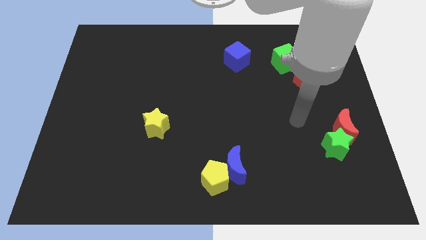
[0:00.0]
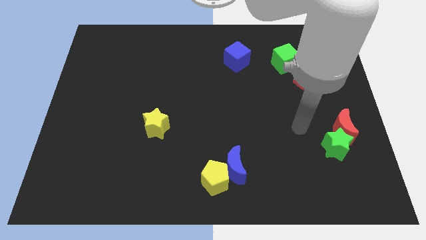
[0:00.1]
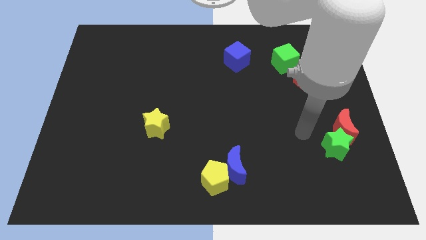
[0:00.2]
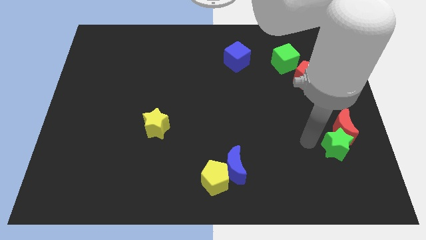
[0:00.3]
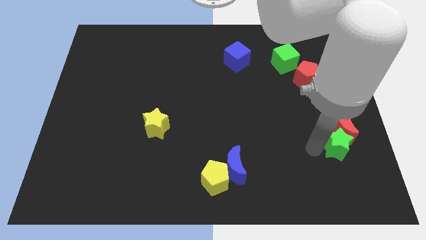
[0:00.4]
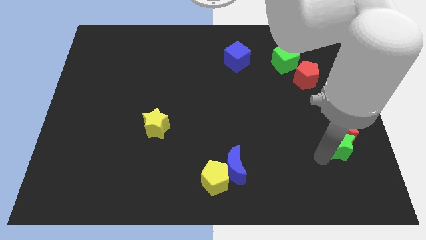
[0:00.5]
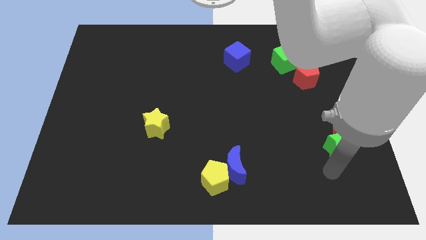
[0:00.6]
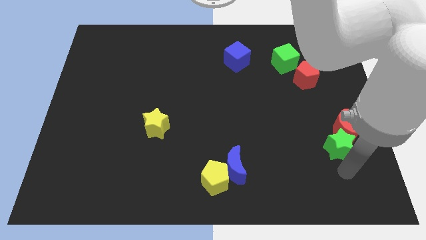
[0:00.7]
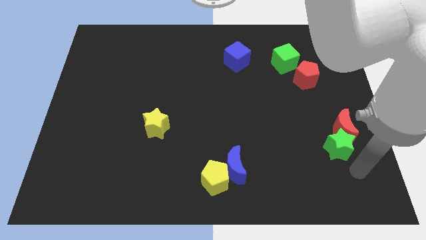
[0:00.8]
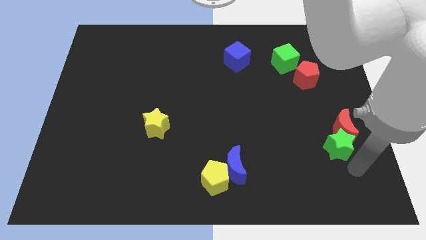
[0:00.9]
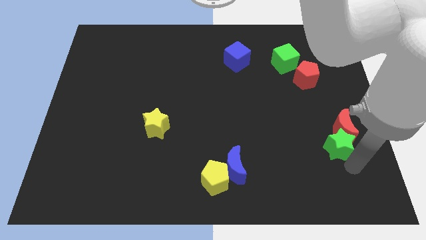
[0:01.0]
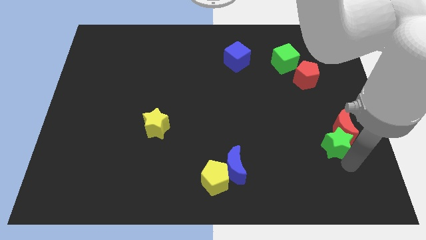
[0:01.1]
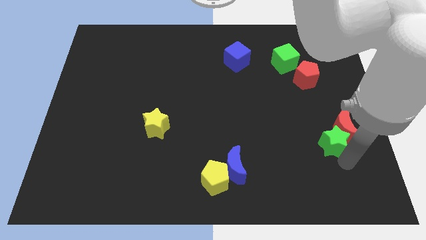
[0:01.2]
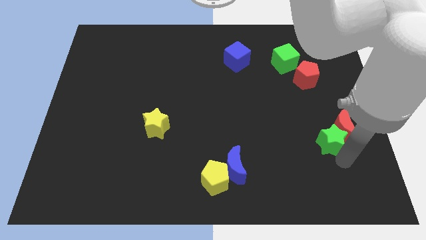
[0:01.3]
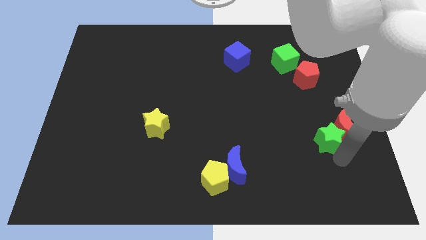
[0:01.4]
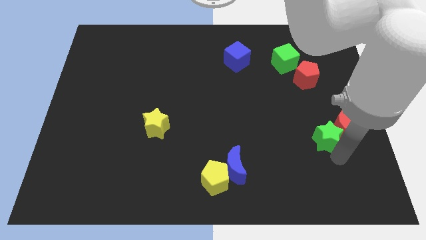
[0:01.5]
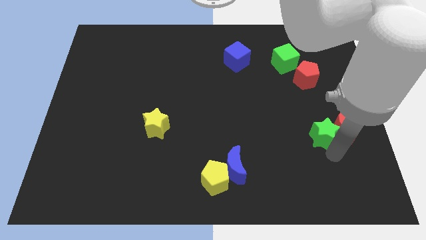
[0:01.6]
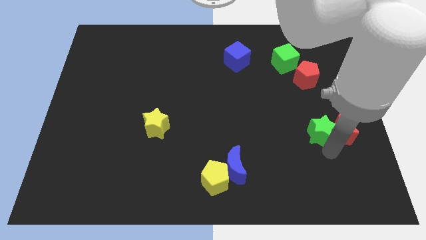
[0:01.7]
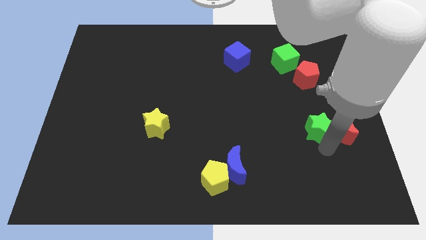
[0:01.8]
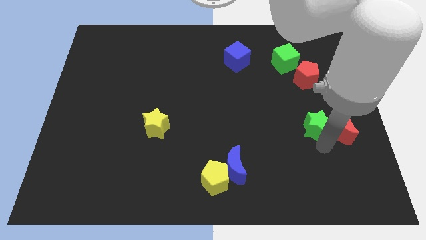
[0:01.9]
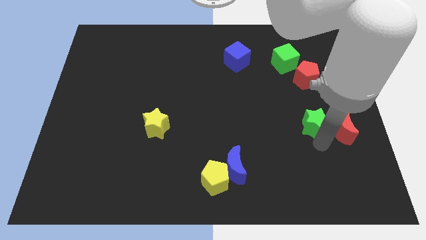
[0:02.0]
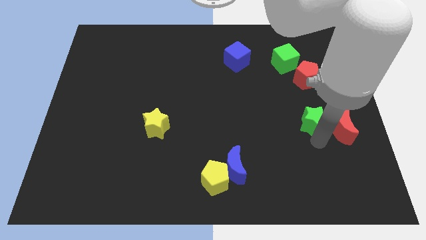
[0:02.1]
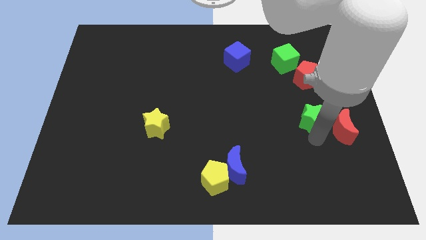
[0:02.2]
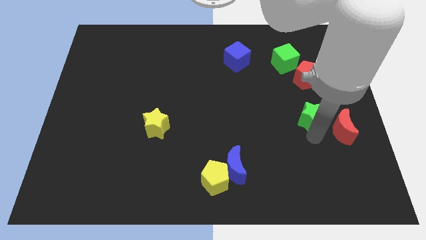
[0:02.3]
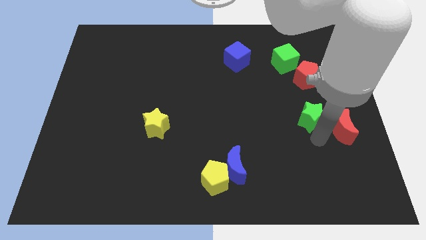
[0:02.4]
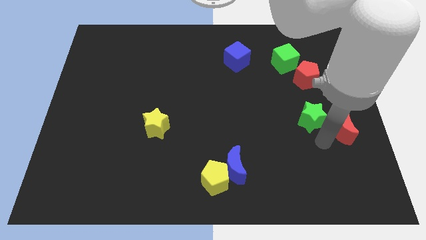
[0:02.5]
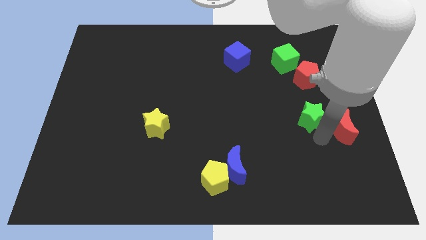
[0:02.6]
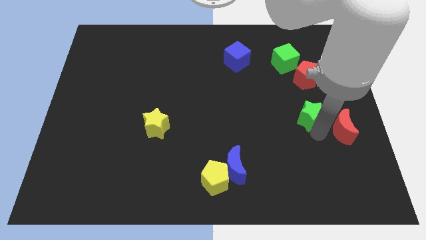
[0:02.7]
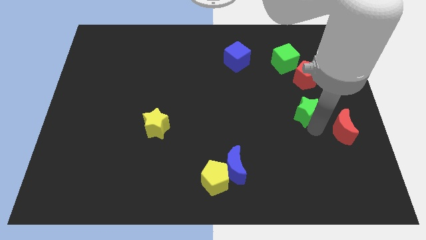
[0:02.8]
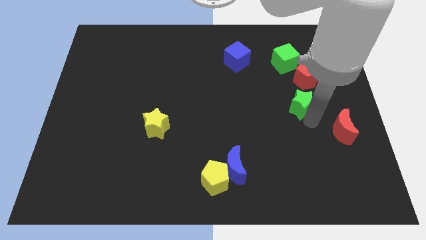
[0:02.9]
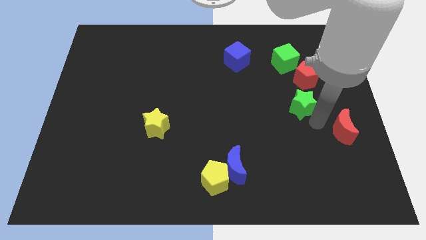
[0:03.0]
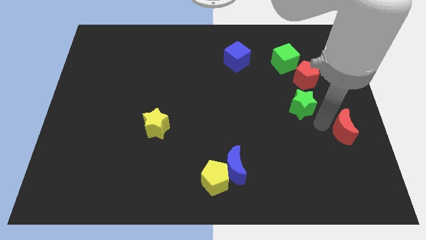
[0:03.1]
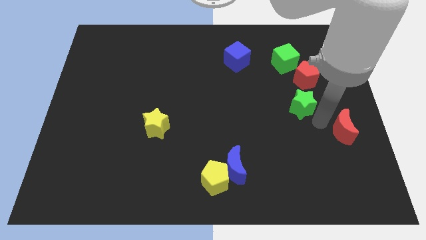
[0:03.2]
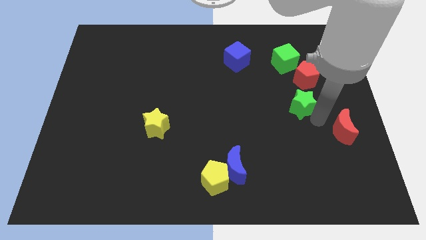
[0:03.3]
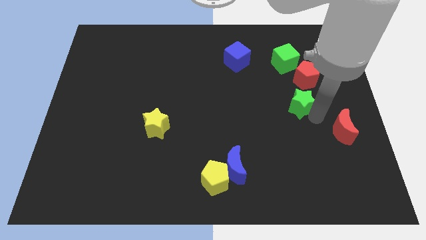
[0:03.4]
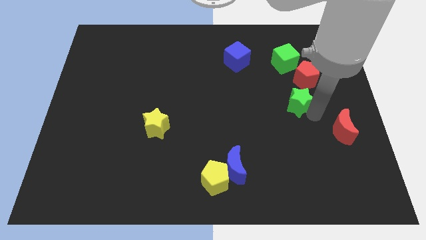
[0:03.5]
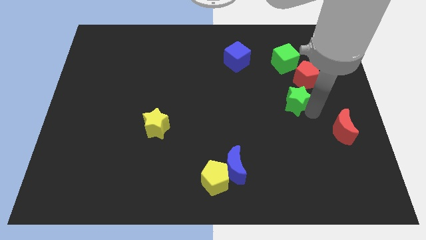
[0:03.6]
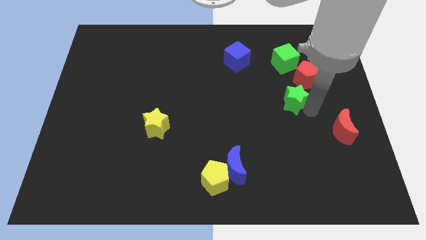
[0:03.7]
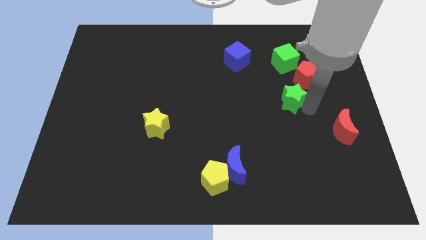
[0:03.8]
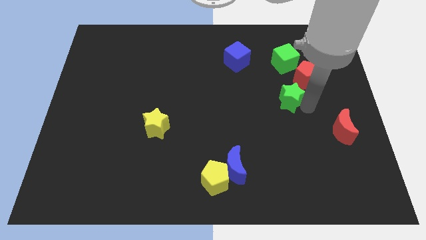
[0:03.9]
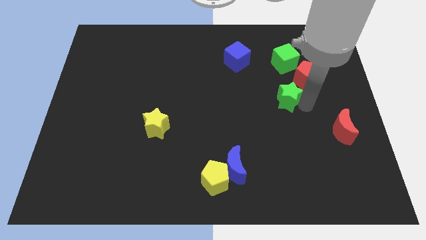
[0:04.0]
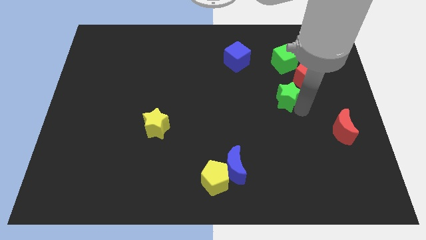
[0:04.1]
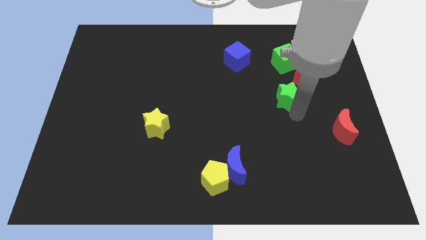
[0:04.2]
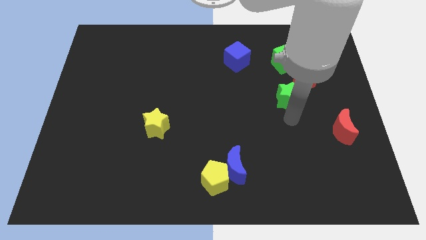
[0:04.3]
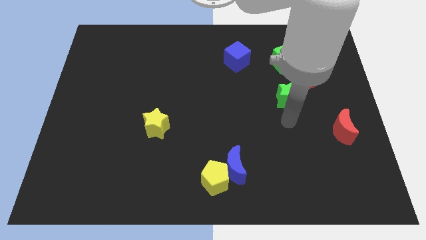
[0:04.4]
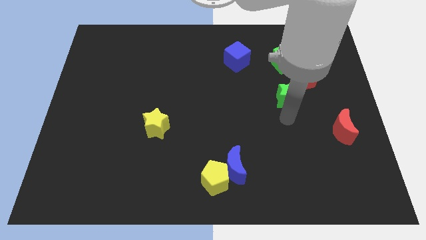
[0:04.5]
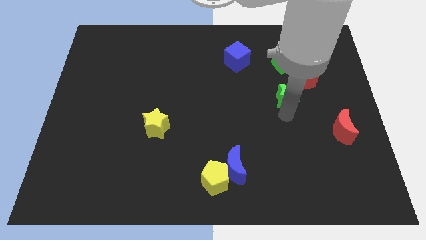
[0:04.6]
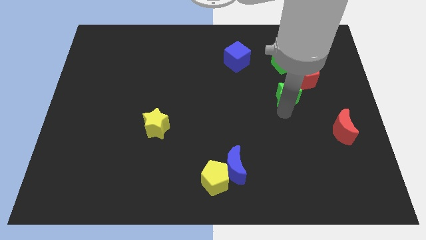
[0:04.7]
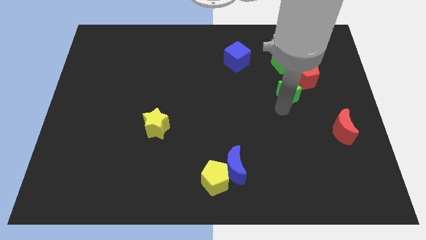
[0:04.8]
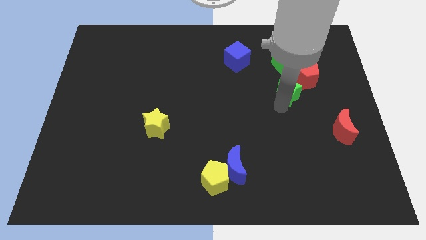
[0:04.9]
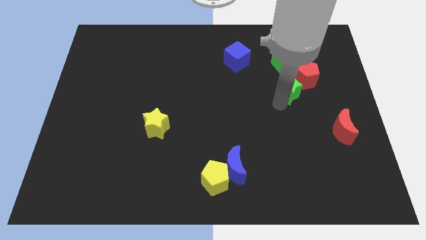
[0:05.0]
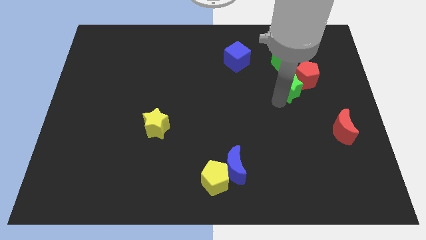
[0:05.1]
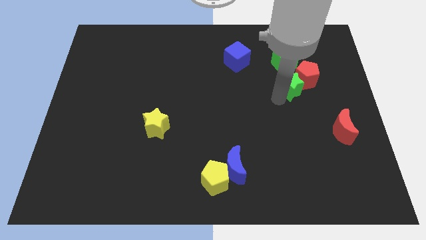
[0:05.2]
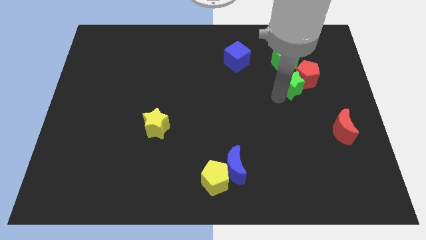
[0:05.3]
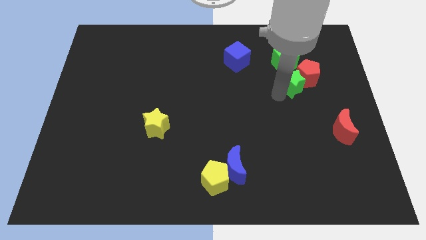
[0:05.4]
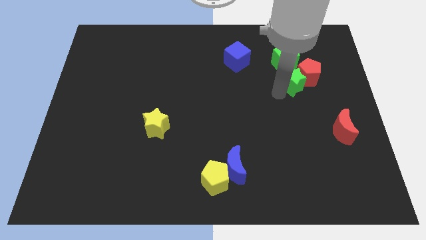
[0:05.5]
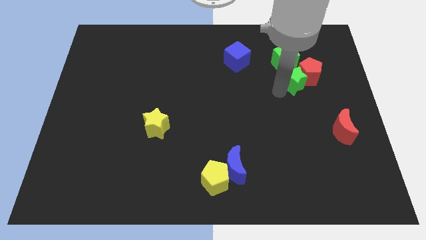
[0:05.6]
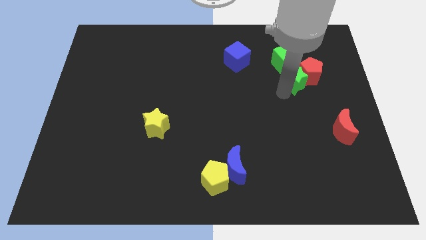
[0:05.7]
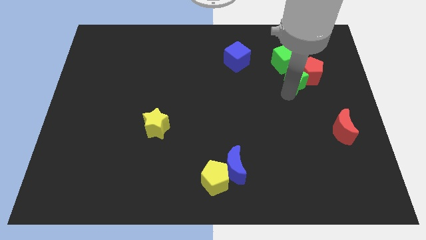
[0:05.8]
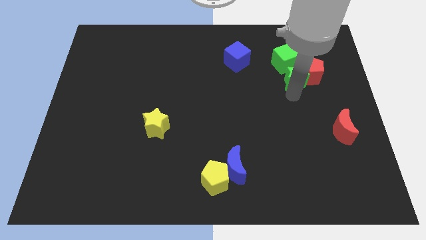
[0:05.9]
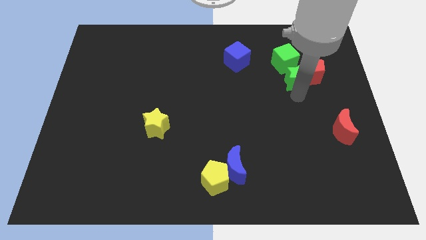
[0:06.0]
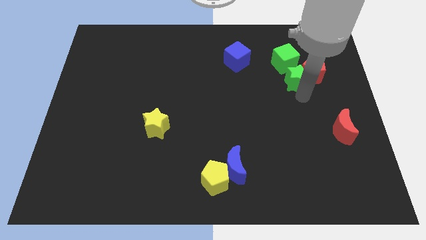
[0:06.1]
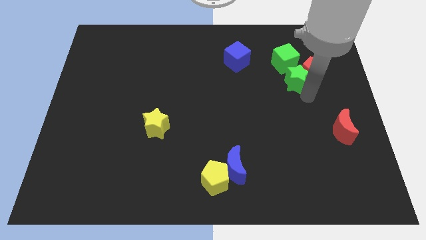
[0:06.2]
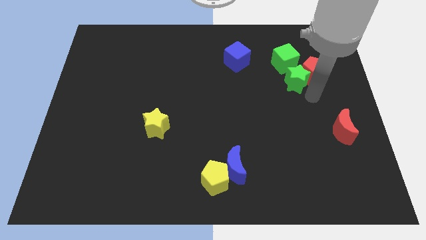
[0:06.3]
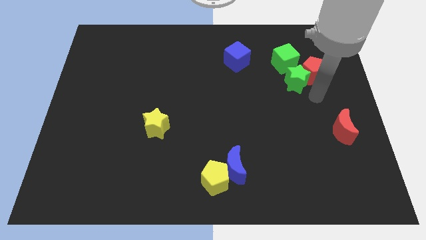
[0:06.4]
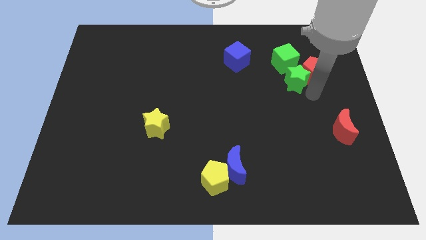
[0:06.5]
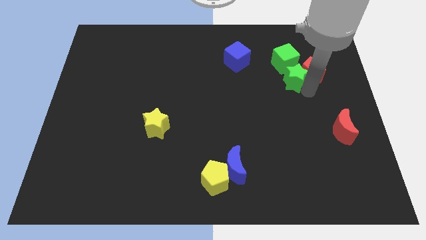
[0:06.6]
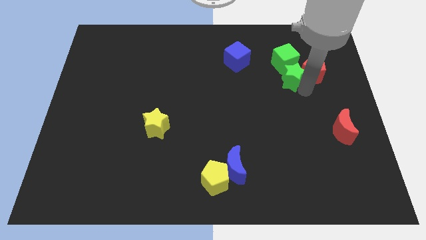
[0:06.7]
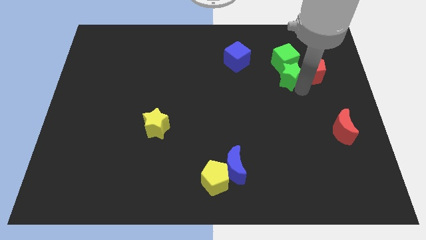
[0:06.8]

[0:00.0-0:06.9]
move the green star to the green cube

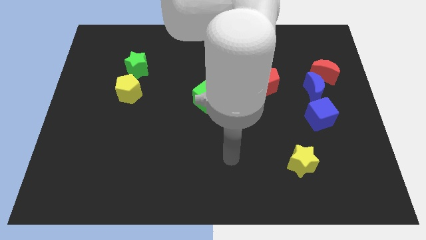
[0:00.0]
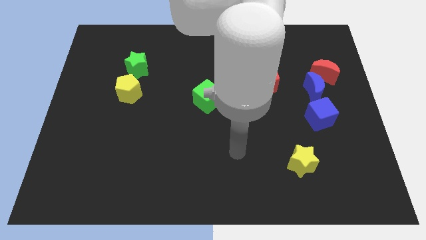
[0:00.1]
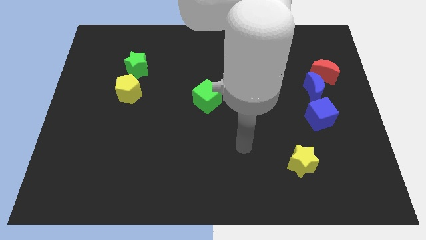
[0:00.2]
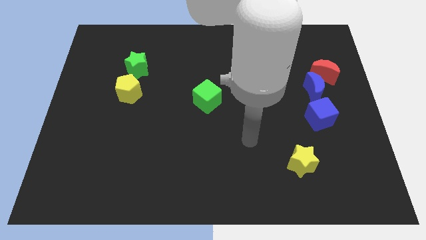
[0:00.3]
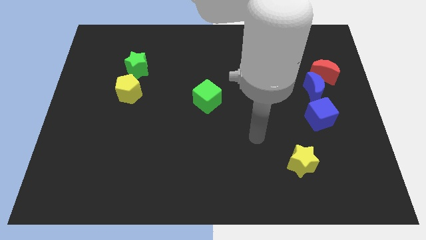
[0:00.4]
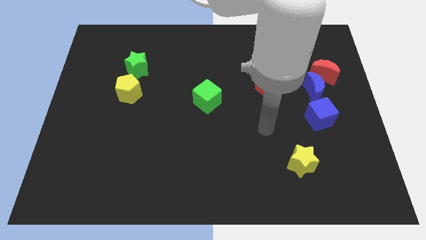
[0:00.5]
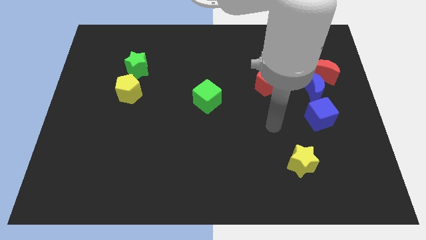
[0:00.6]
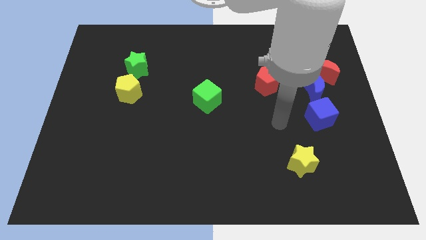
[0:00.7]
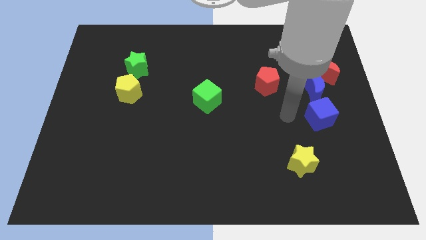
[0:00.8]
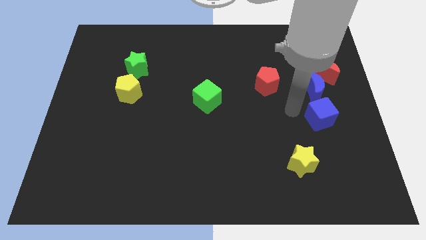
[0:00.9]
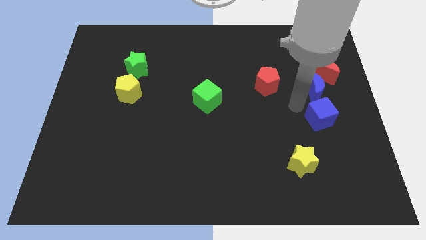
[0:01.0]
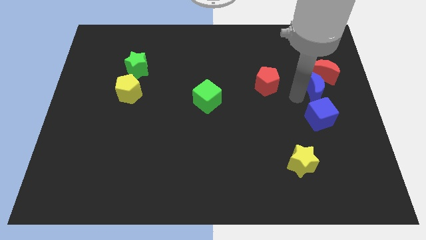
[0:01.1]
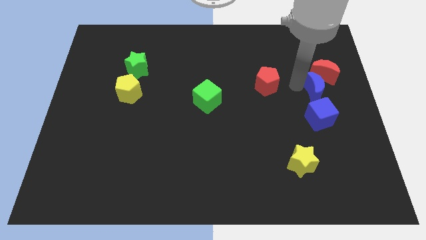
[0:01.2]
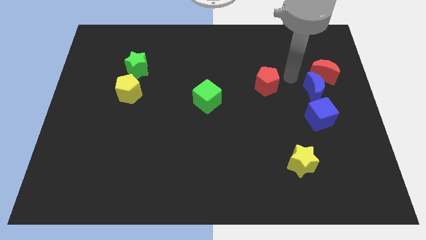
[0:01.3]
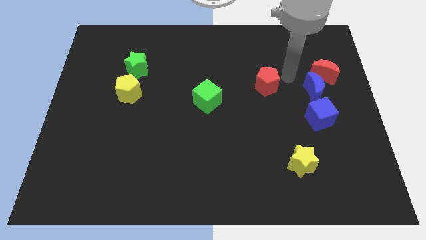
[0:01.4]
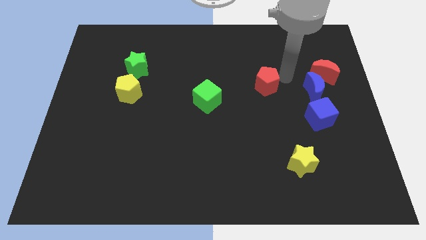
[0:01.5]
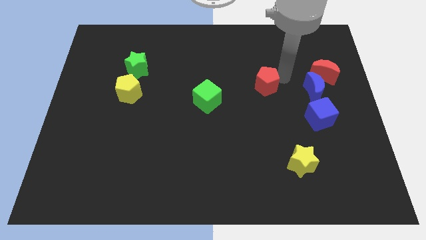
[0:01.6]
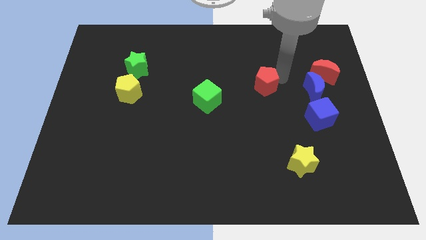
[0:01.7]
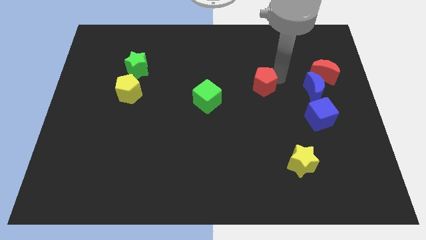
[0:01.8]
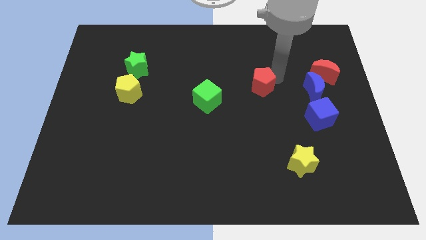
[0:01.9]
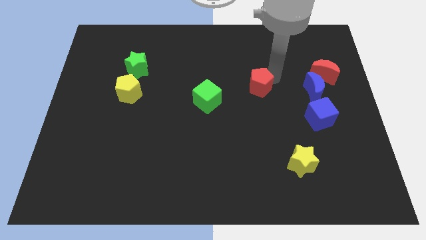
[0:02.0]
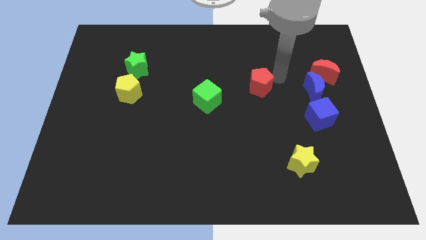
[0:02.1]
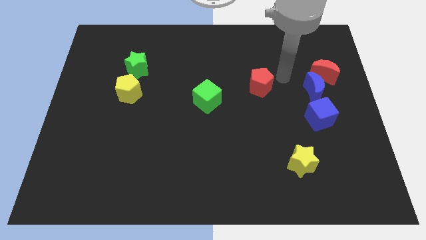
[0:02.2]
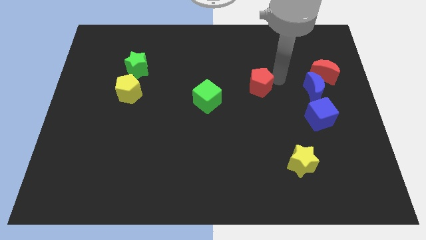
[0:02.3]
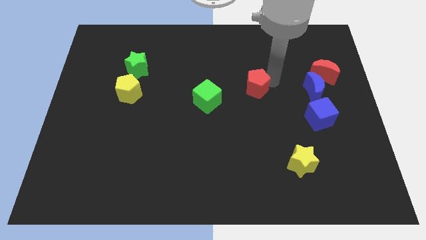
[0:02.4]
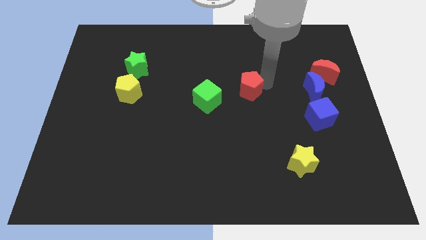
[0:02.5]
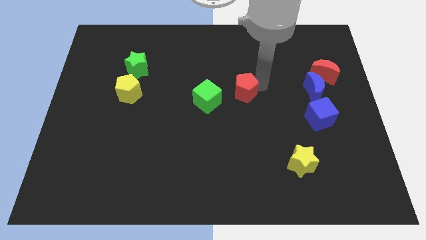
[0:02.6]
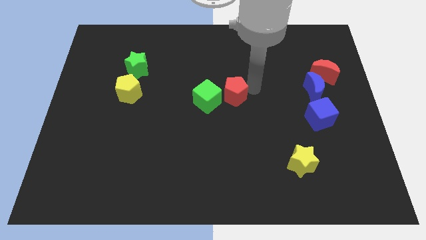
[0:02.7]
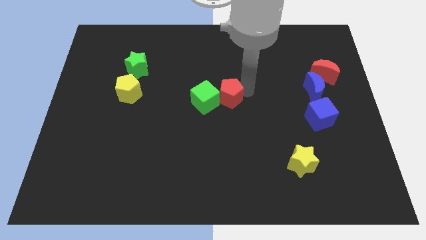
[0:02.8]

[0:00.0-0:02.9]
put the red pentagon to the green cube
